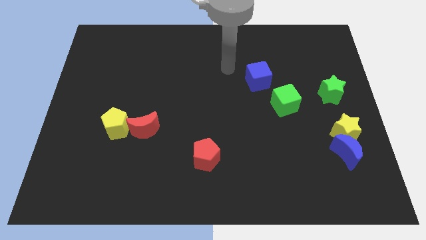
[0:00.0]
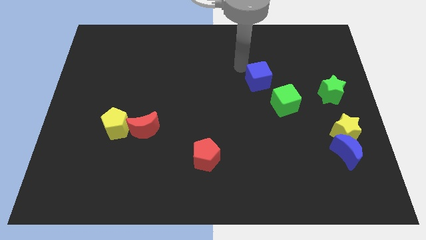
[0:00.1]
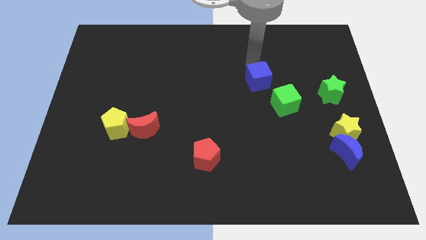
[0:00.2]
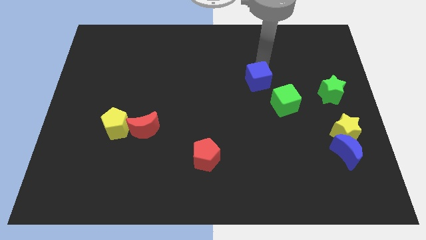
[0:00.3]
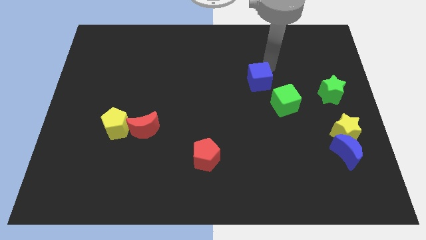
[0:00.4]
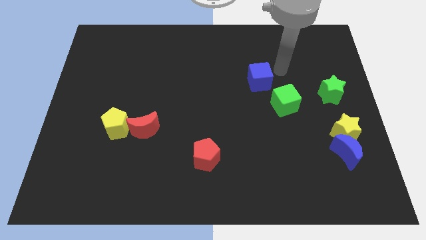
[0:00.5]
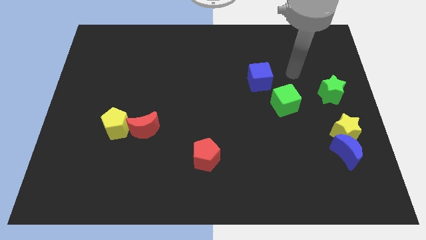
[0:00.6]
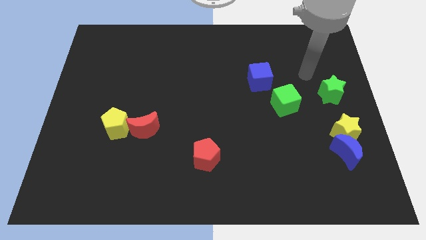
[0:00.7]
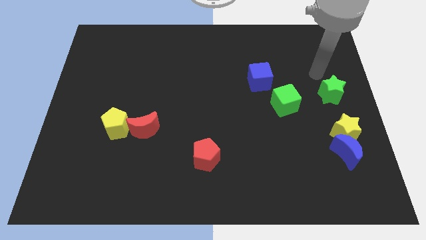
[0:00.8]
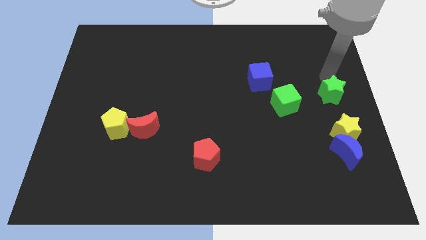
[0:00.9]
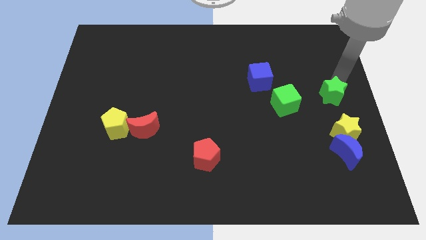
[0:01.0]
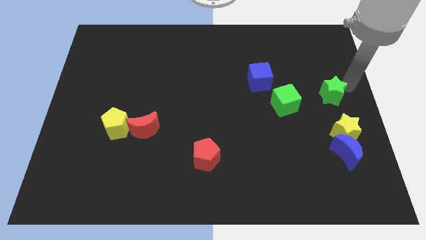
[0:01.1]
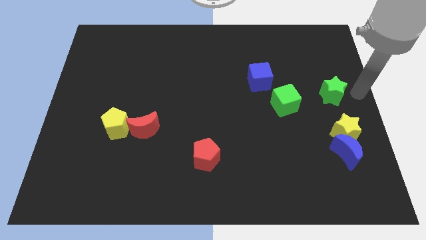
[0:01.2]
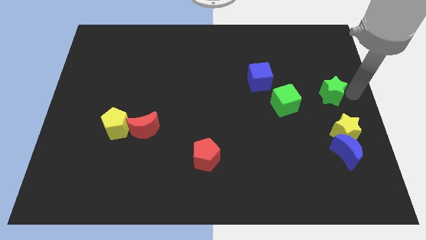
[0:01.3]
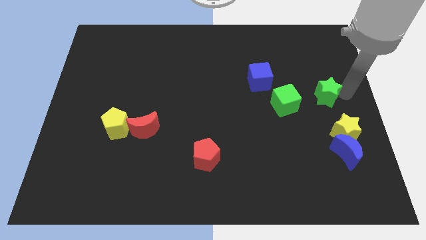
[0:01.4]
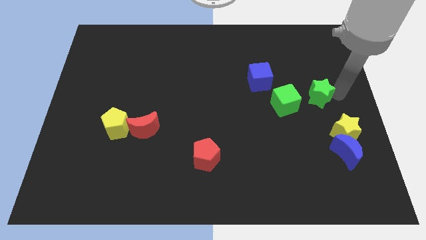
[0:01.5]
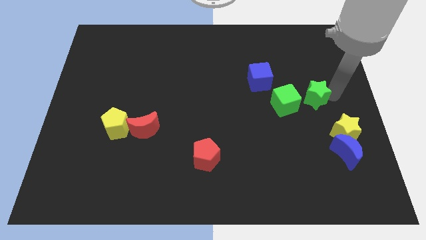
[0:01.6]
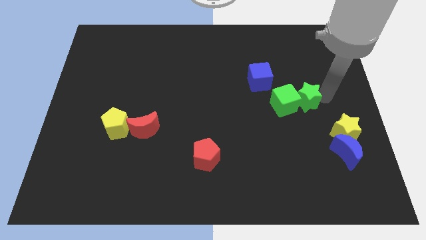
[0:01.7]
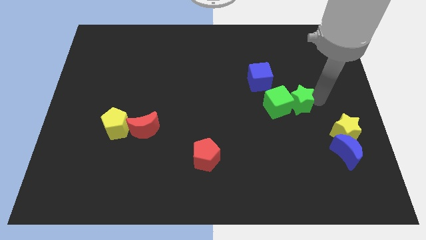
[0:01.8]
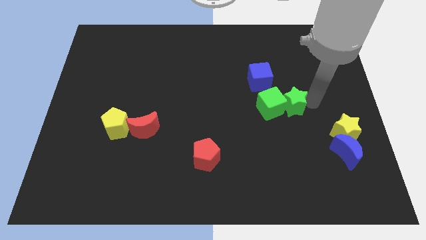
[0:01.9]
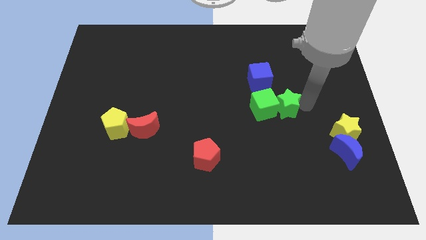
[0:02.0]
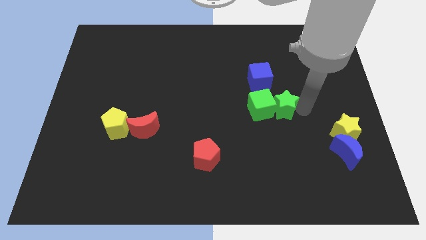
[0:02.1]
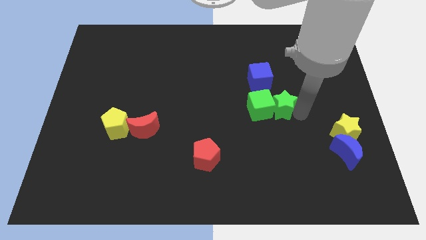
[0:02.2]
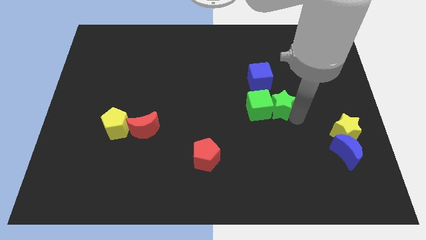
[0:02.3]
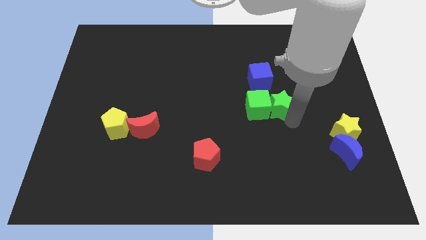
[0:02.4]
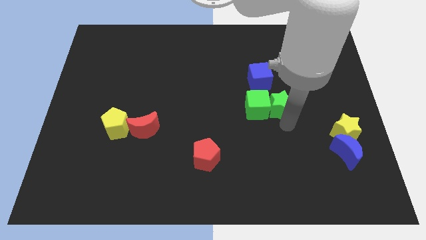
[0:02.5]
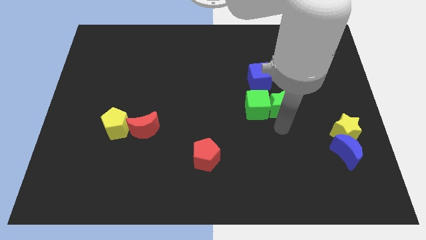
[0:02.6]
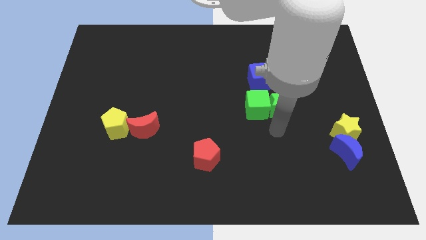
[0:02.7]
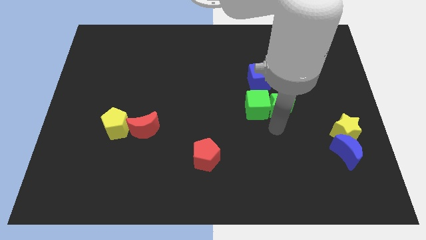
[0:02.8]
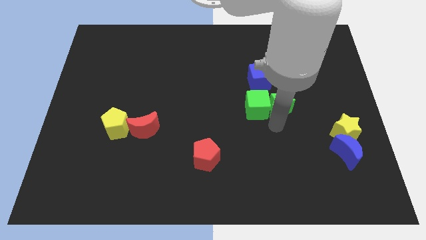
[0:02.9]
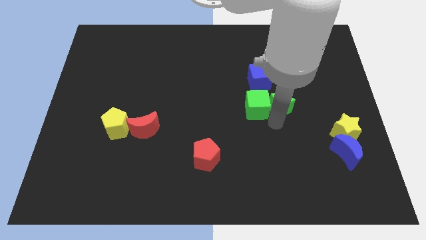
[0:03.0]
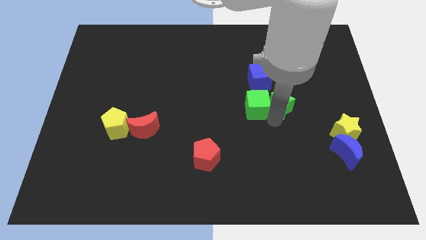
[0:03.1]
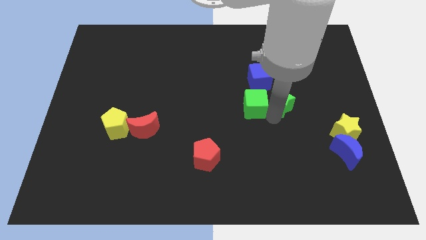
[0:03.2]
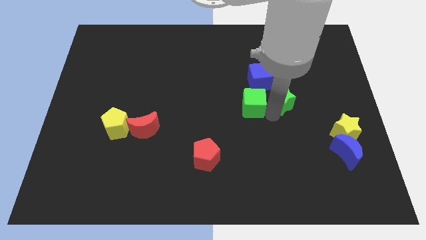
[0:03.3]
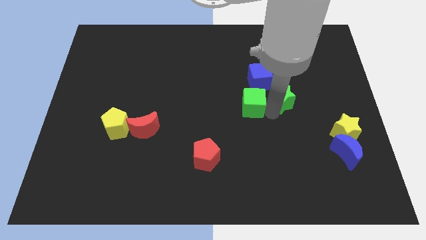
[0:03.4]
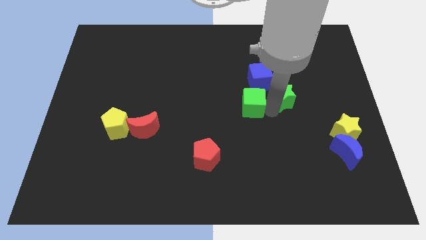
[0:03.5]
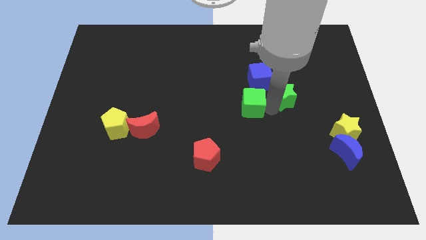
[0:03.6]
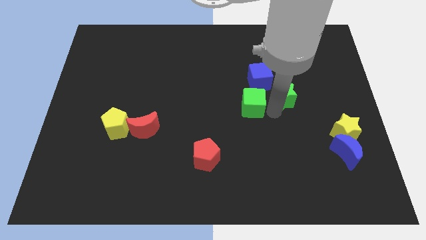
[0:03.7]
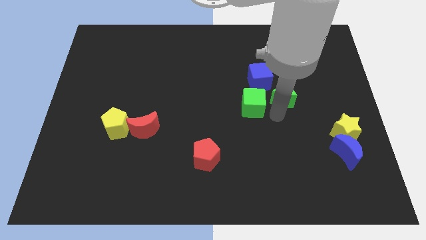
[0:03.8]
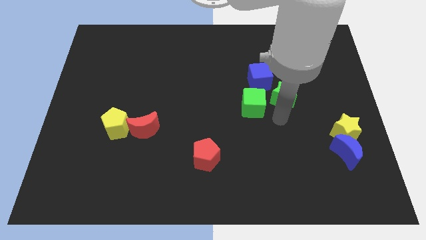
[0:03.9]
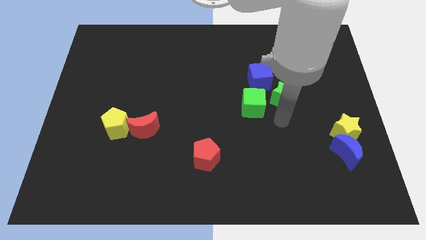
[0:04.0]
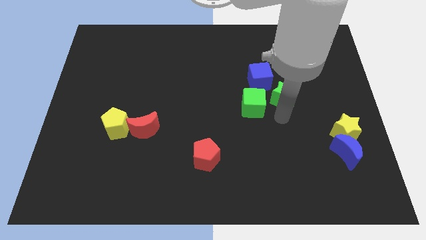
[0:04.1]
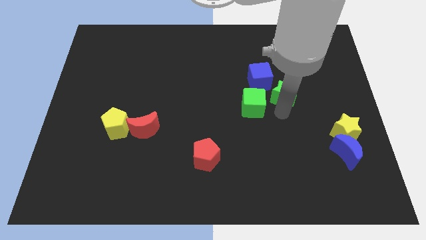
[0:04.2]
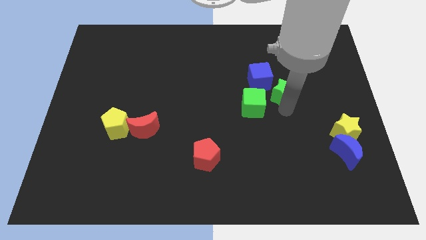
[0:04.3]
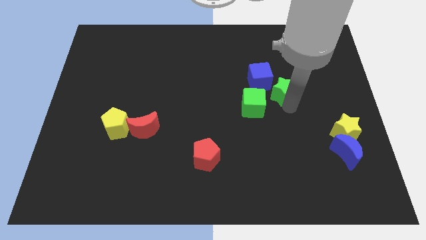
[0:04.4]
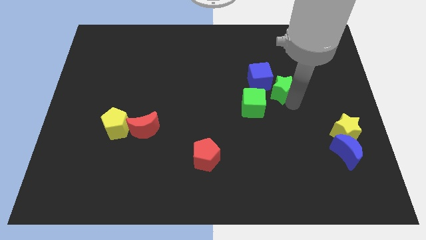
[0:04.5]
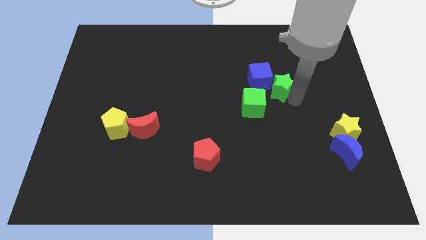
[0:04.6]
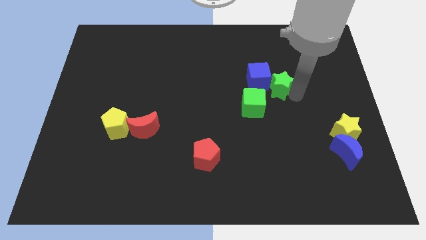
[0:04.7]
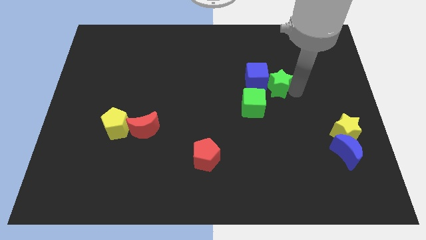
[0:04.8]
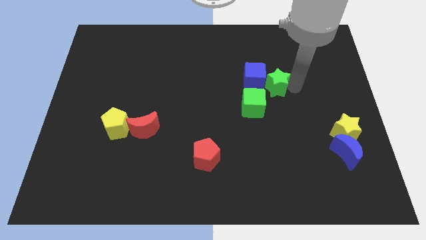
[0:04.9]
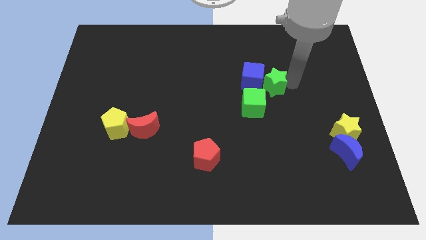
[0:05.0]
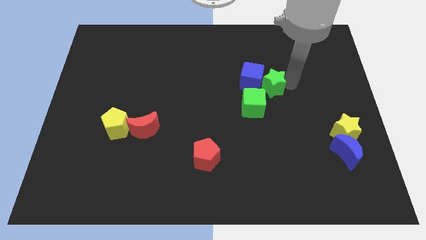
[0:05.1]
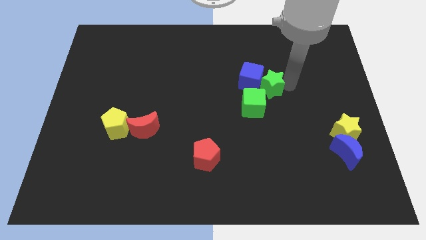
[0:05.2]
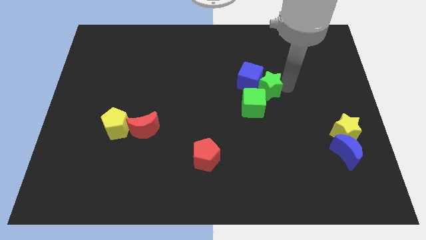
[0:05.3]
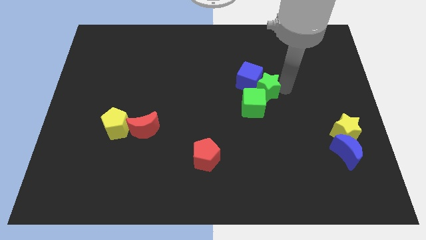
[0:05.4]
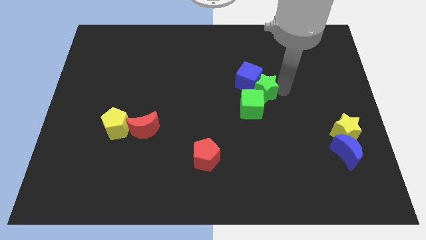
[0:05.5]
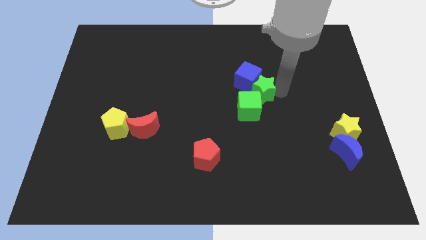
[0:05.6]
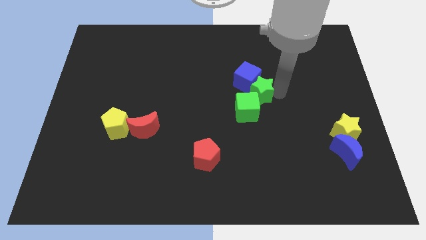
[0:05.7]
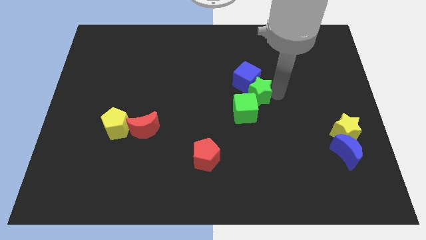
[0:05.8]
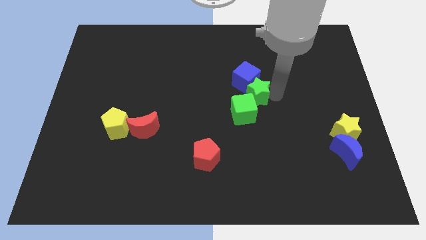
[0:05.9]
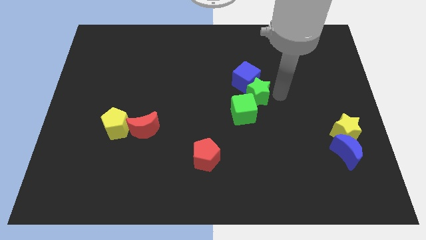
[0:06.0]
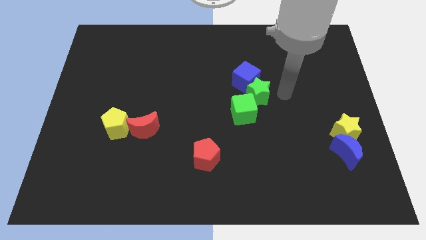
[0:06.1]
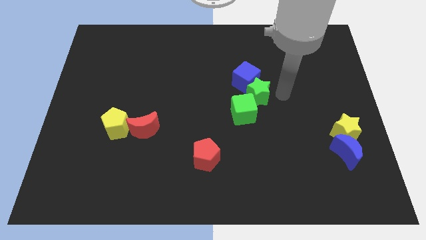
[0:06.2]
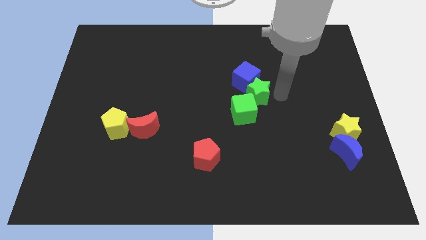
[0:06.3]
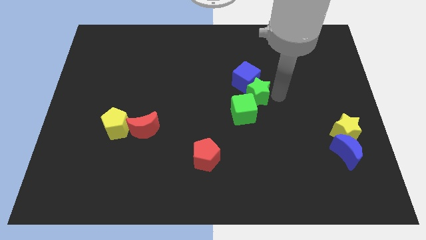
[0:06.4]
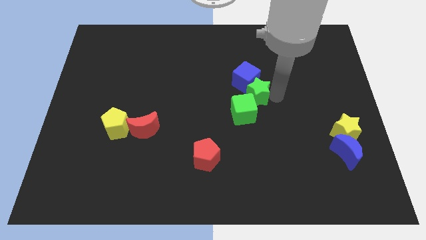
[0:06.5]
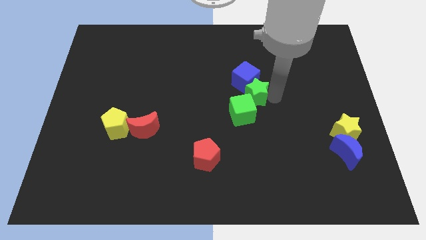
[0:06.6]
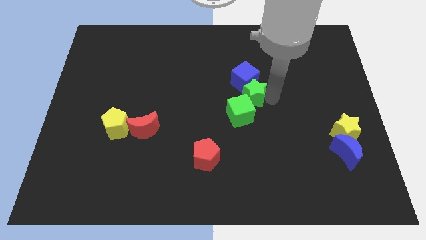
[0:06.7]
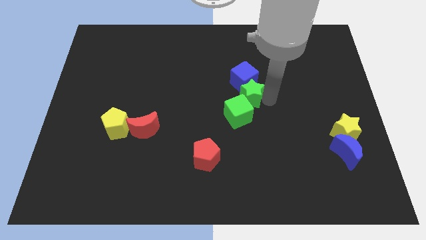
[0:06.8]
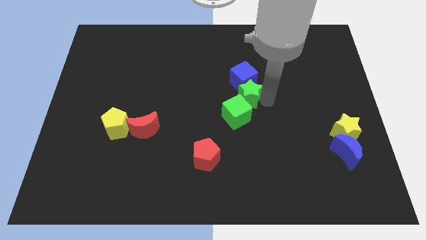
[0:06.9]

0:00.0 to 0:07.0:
slide the green star to the left

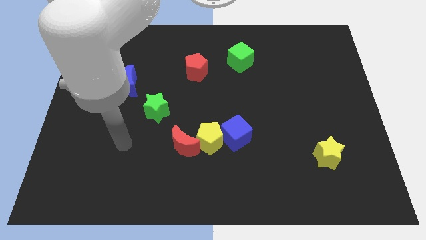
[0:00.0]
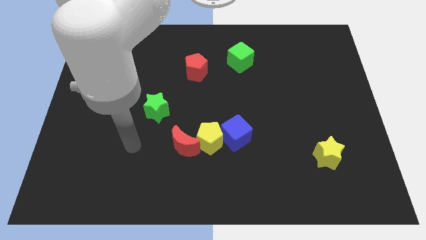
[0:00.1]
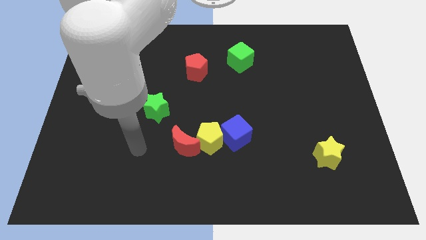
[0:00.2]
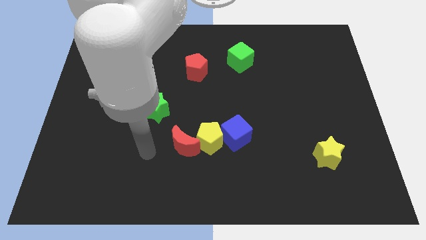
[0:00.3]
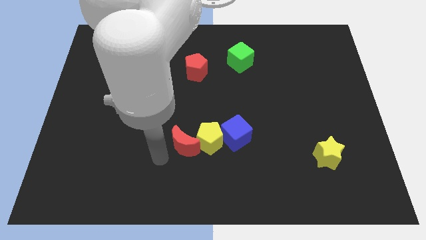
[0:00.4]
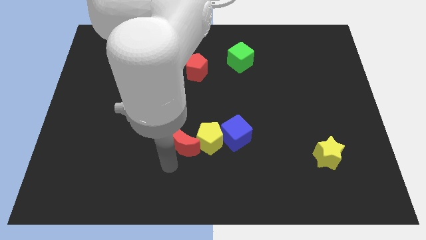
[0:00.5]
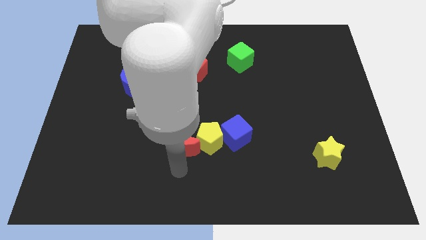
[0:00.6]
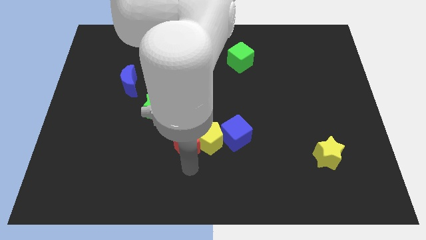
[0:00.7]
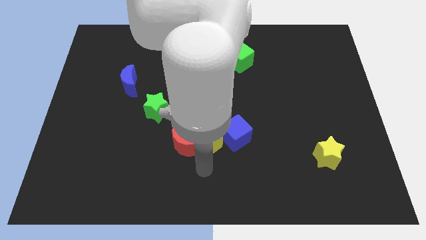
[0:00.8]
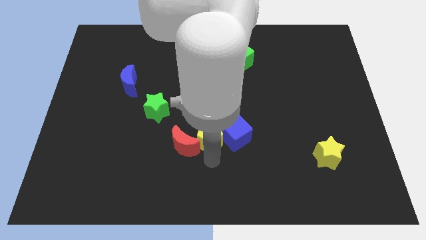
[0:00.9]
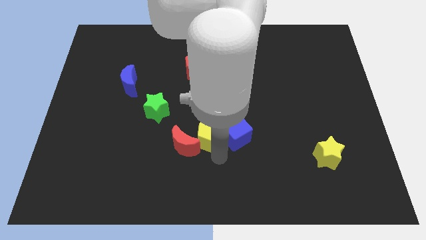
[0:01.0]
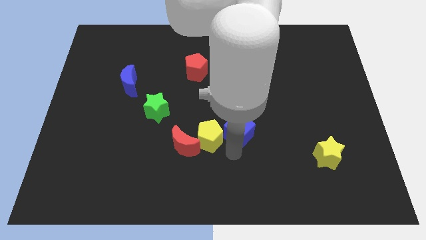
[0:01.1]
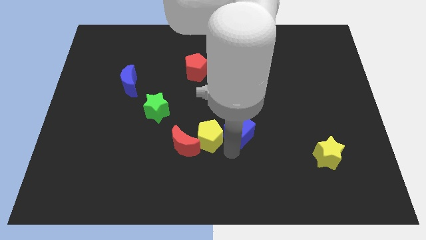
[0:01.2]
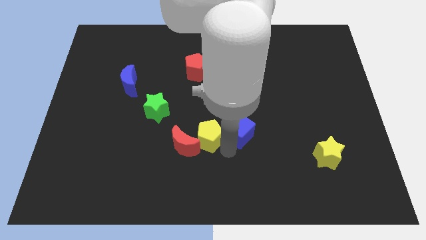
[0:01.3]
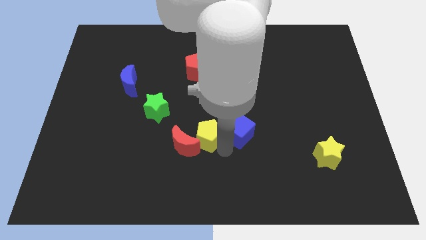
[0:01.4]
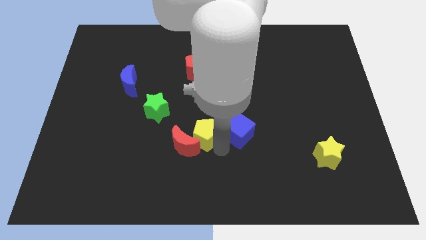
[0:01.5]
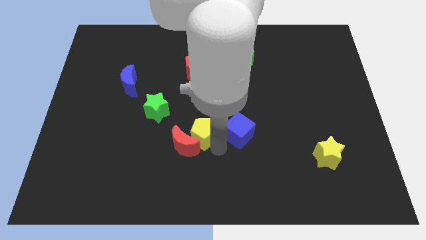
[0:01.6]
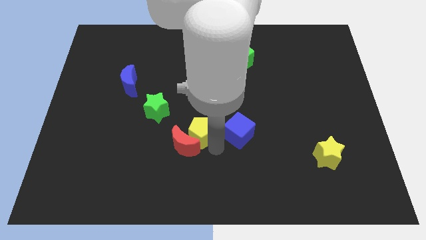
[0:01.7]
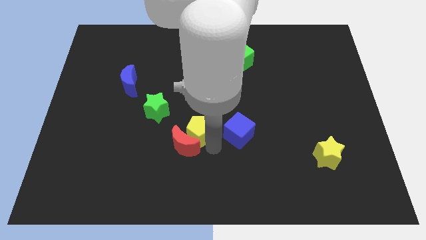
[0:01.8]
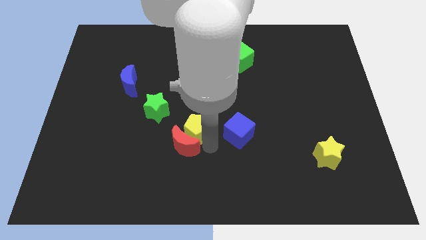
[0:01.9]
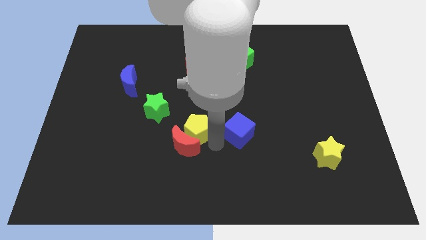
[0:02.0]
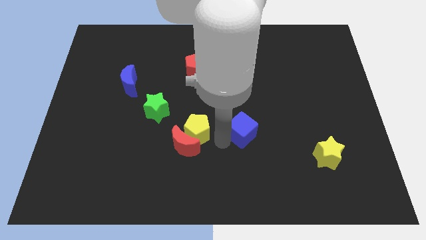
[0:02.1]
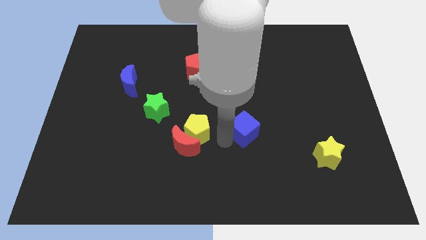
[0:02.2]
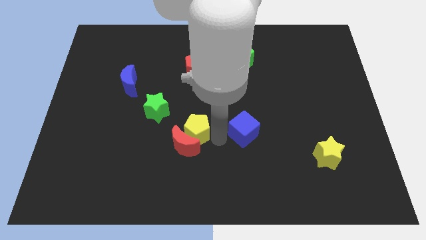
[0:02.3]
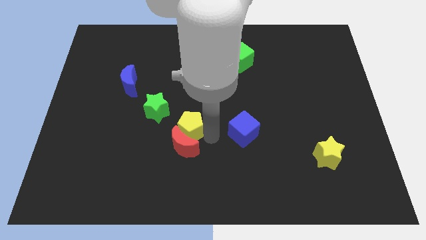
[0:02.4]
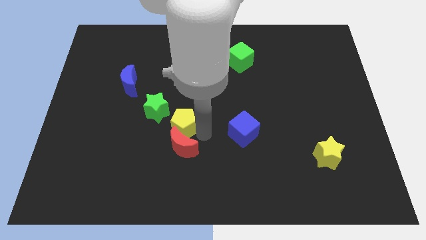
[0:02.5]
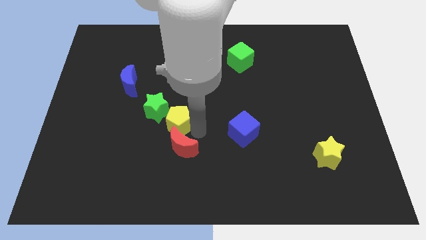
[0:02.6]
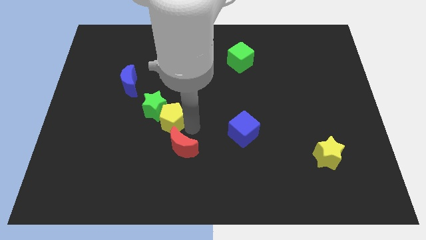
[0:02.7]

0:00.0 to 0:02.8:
slightly move the yellow pentagon left
